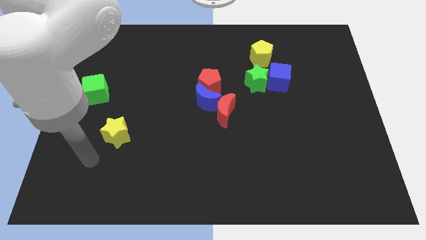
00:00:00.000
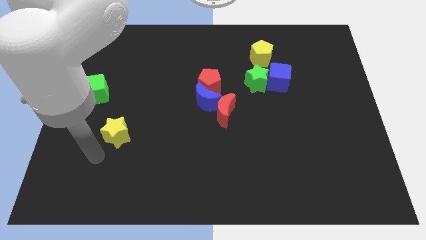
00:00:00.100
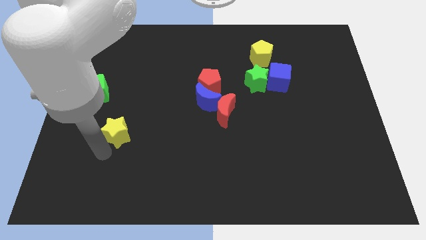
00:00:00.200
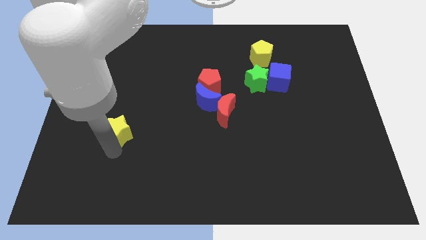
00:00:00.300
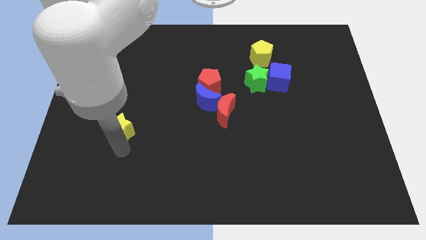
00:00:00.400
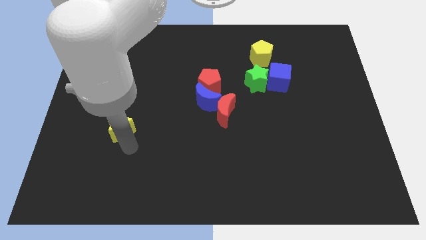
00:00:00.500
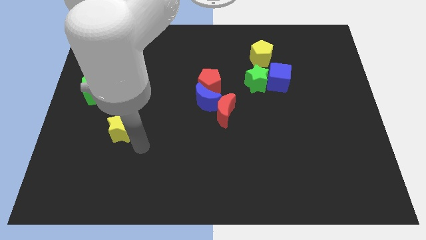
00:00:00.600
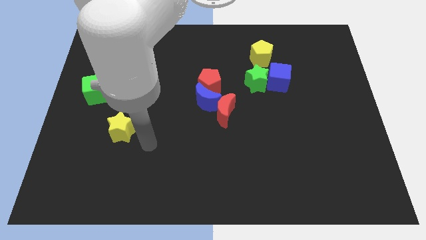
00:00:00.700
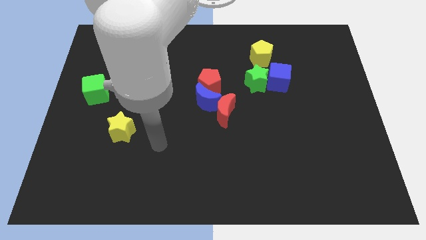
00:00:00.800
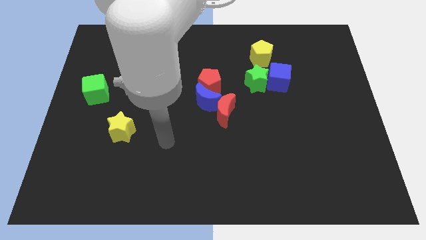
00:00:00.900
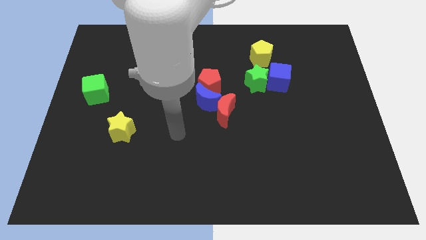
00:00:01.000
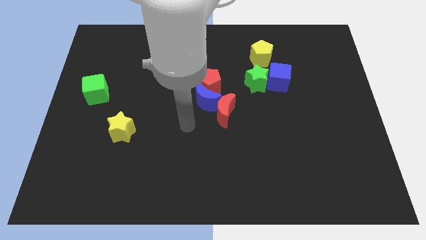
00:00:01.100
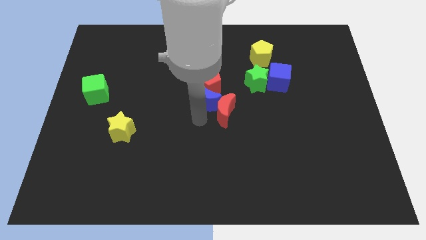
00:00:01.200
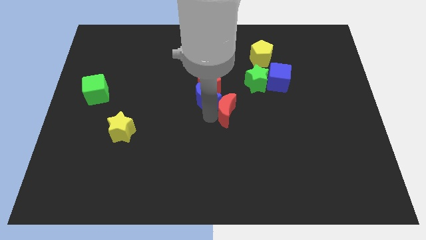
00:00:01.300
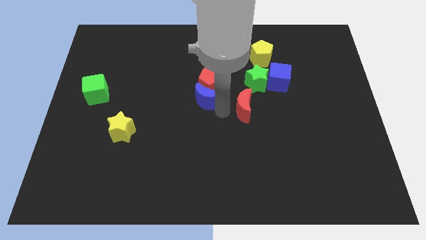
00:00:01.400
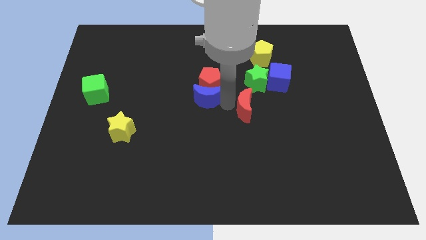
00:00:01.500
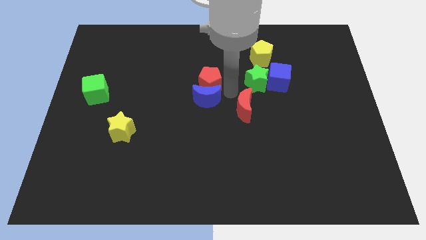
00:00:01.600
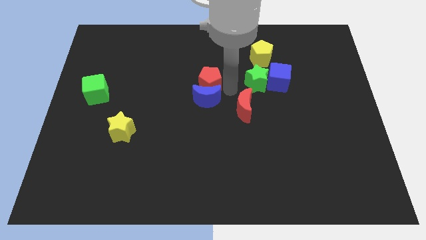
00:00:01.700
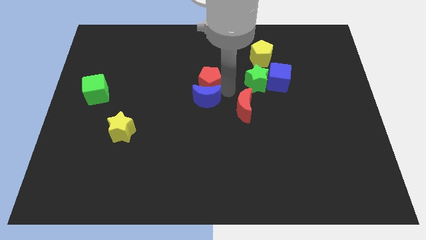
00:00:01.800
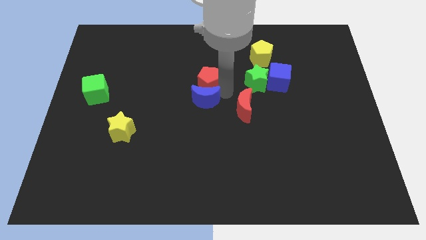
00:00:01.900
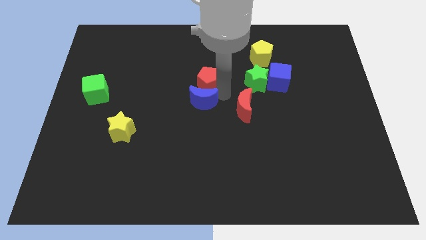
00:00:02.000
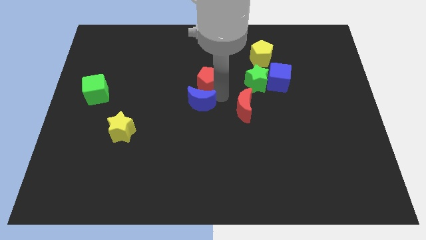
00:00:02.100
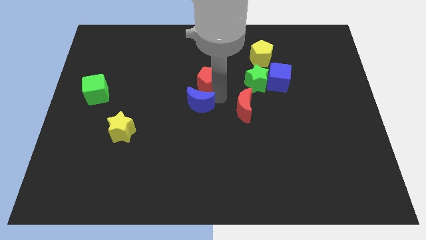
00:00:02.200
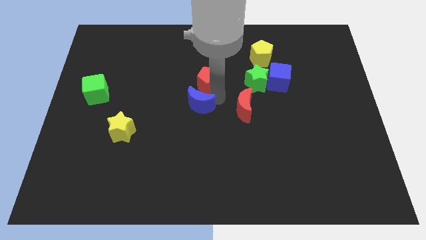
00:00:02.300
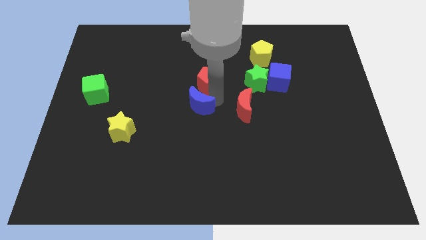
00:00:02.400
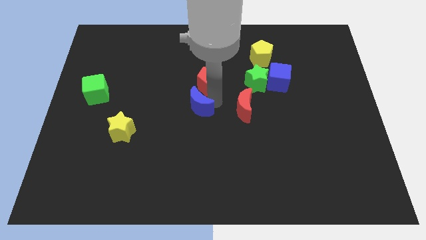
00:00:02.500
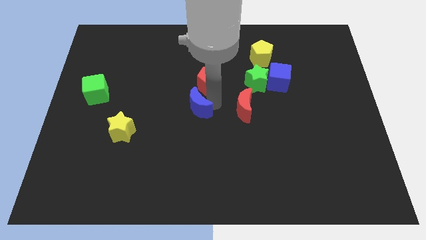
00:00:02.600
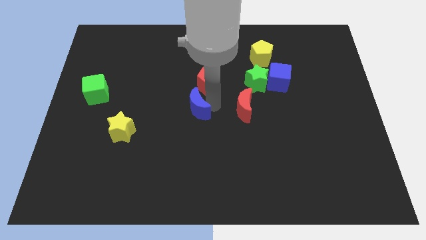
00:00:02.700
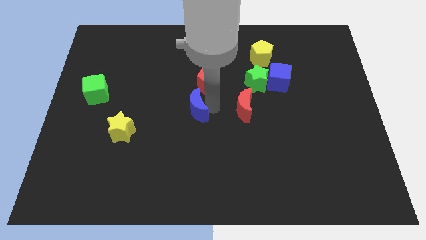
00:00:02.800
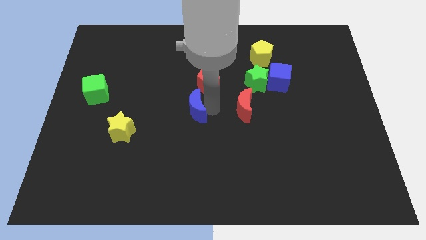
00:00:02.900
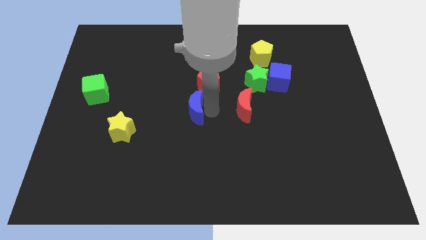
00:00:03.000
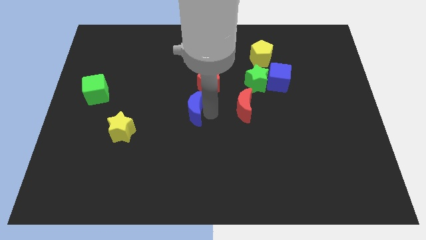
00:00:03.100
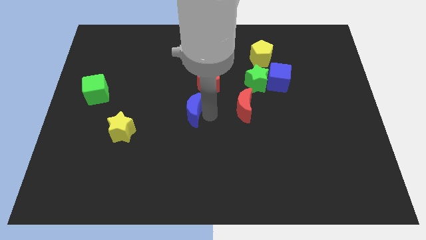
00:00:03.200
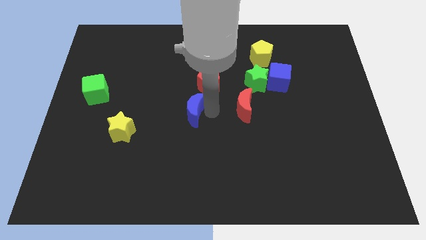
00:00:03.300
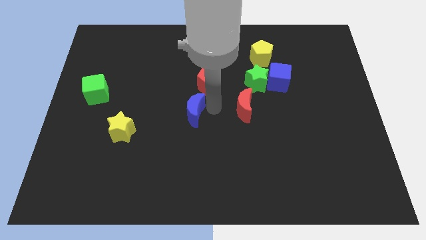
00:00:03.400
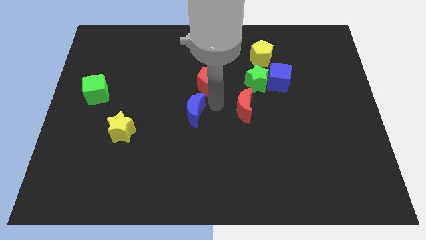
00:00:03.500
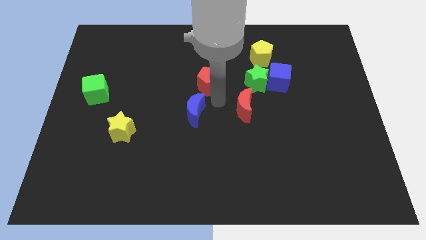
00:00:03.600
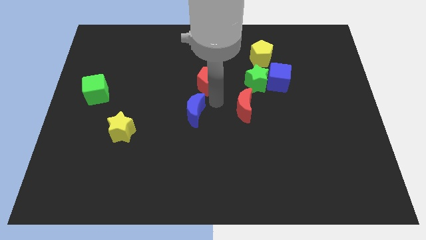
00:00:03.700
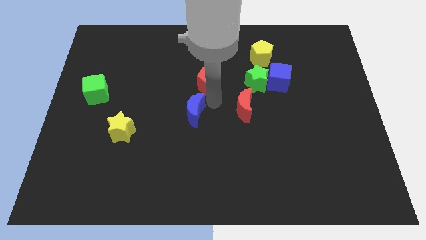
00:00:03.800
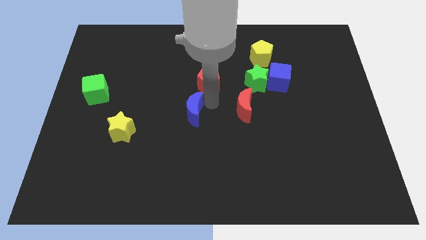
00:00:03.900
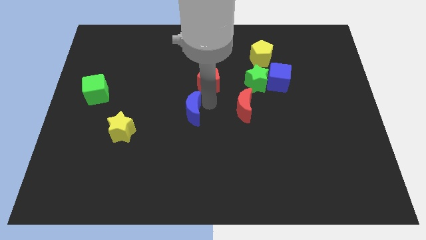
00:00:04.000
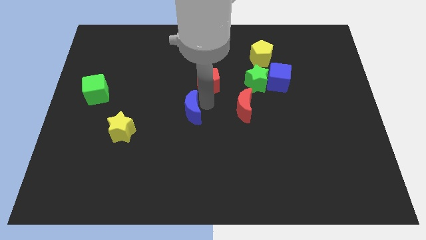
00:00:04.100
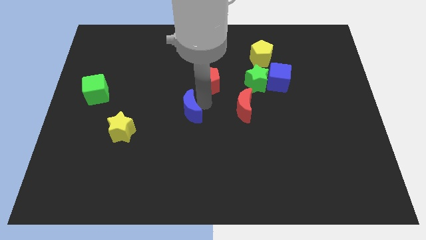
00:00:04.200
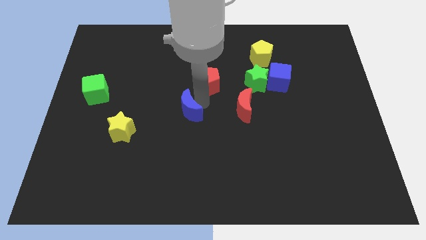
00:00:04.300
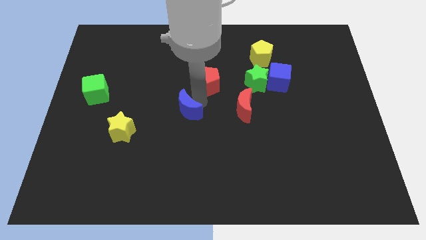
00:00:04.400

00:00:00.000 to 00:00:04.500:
separate the blue moon from the red pentagon and red moon

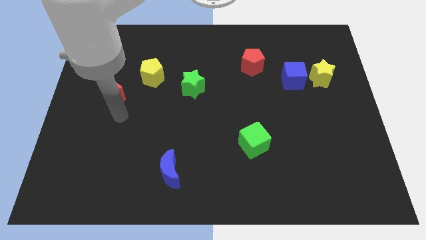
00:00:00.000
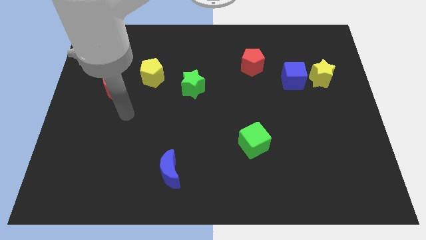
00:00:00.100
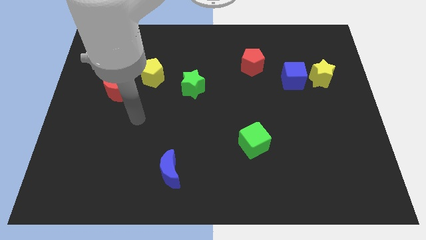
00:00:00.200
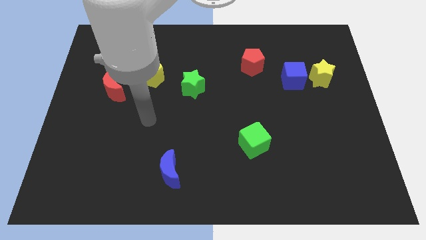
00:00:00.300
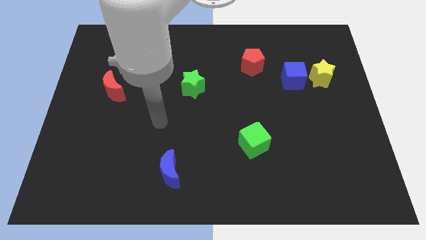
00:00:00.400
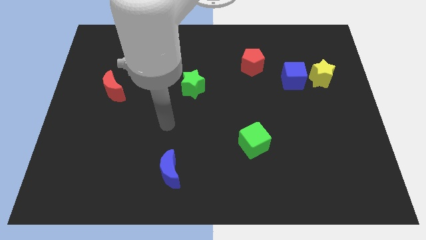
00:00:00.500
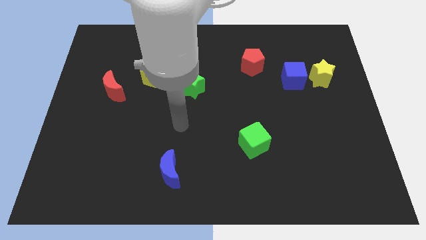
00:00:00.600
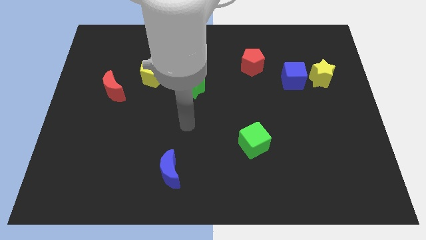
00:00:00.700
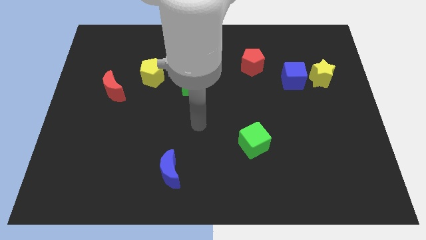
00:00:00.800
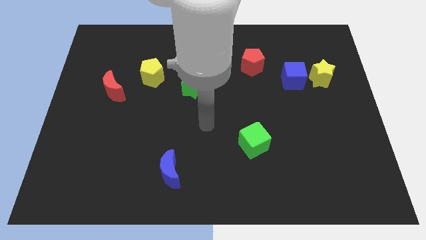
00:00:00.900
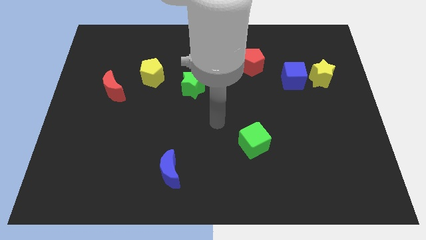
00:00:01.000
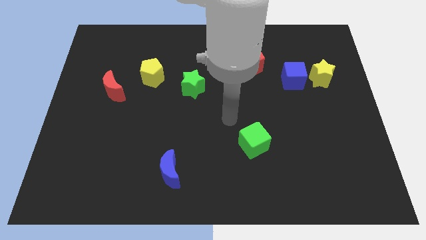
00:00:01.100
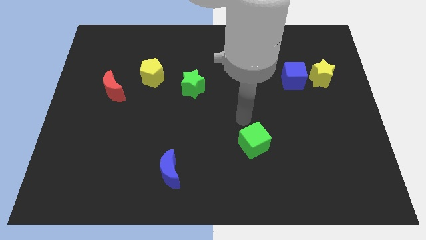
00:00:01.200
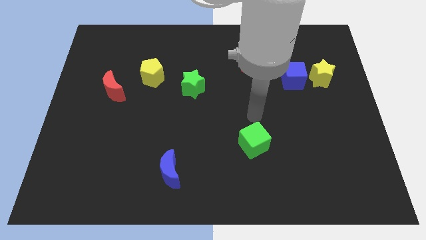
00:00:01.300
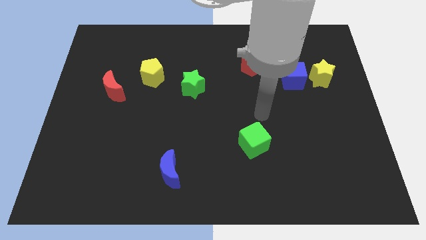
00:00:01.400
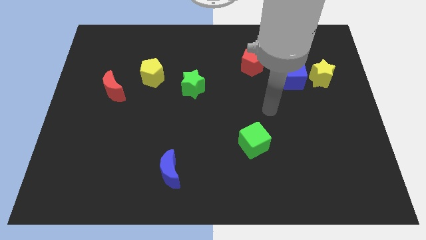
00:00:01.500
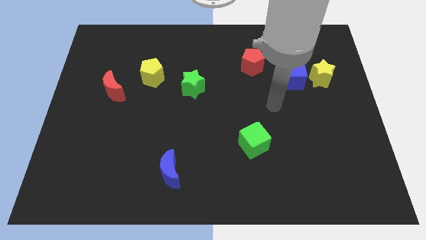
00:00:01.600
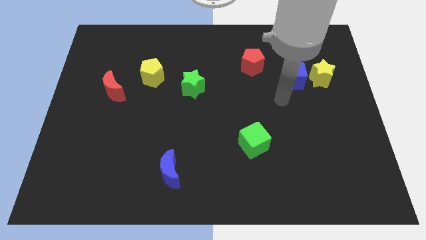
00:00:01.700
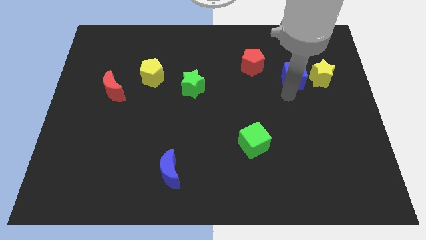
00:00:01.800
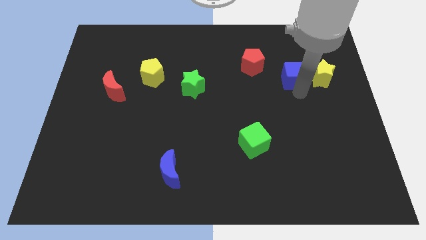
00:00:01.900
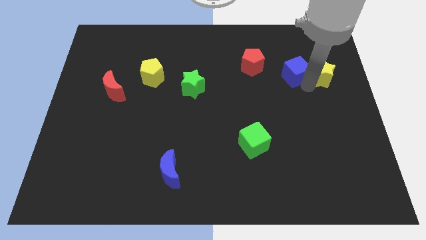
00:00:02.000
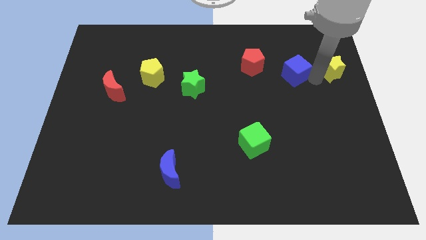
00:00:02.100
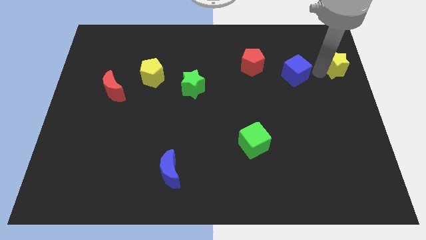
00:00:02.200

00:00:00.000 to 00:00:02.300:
pull the blue cube apart from the yellow star

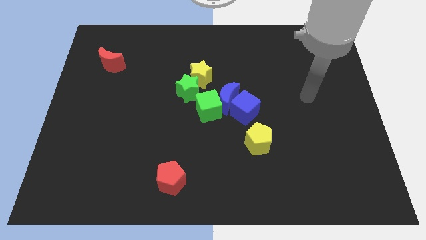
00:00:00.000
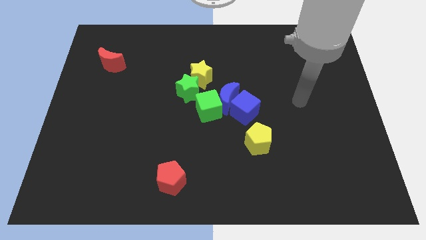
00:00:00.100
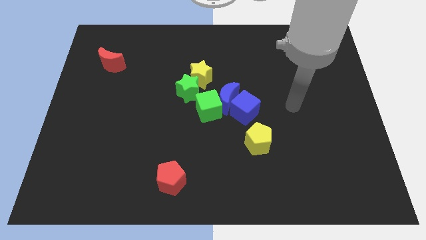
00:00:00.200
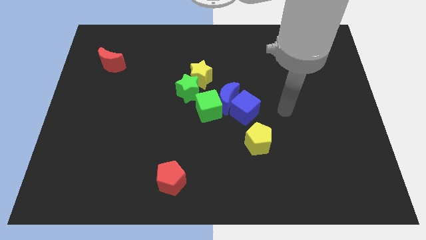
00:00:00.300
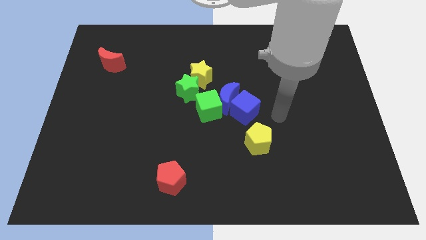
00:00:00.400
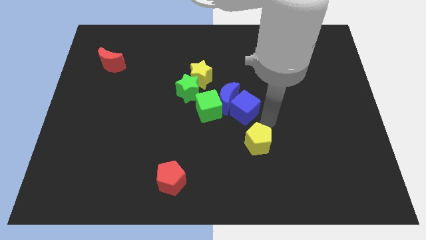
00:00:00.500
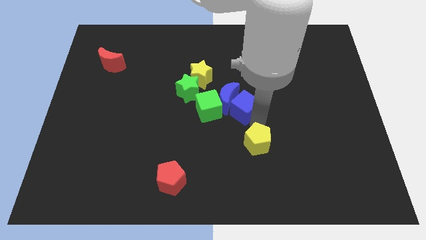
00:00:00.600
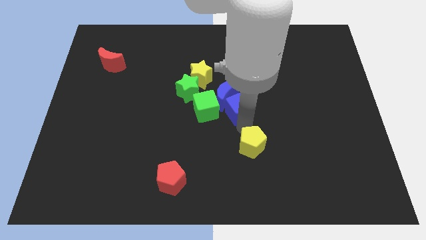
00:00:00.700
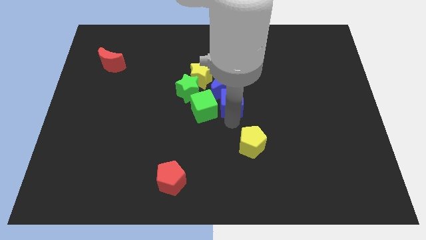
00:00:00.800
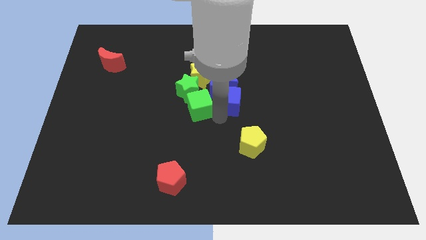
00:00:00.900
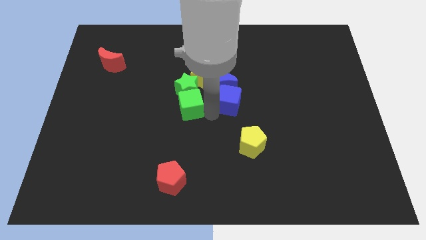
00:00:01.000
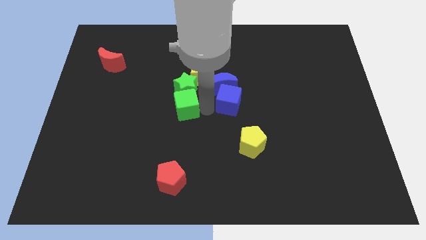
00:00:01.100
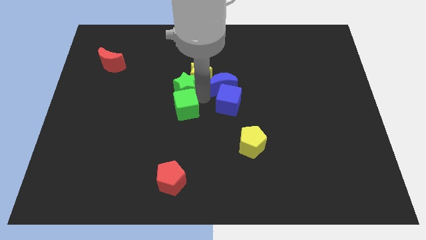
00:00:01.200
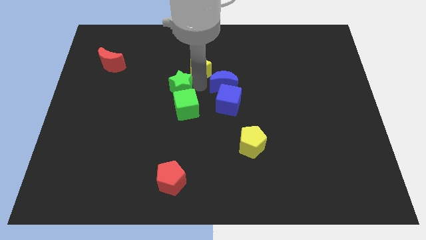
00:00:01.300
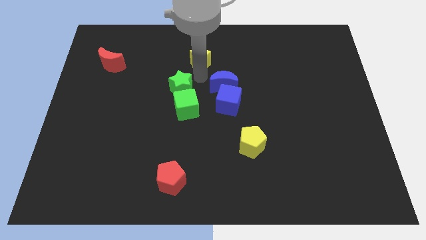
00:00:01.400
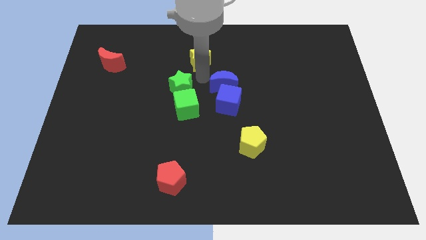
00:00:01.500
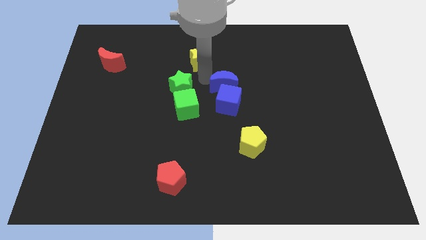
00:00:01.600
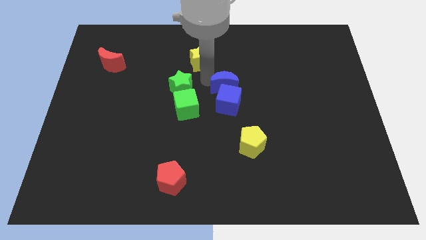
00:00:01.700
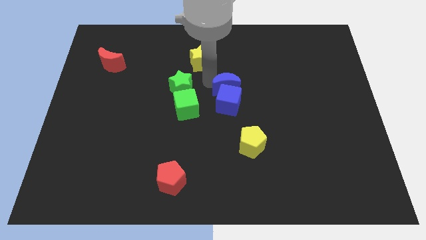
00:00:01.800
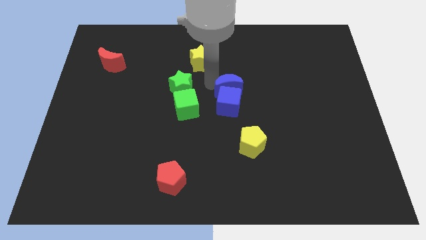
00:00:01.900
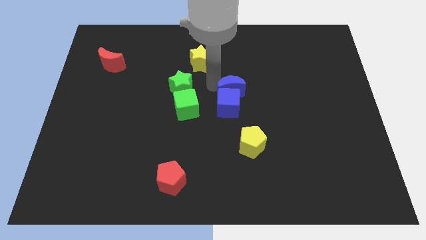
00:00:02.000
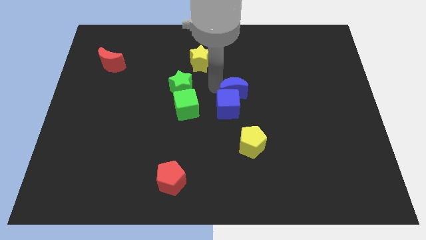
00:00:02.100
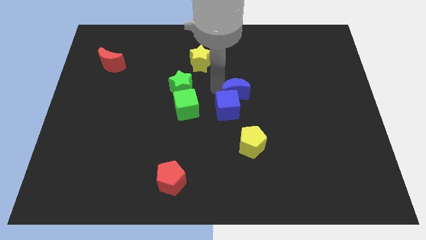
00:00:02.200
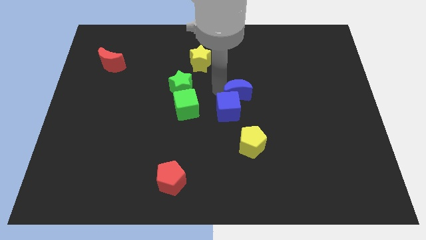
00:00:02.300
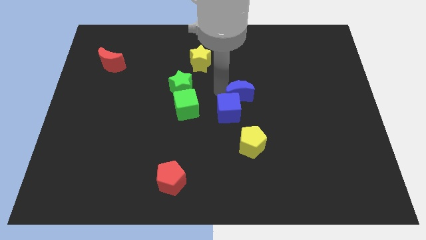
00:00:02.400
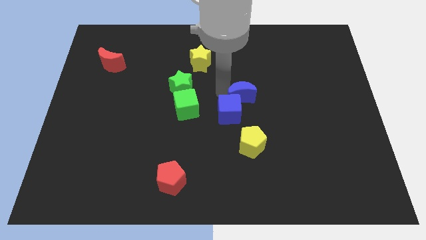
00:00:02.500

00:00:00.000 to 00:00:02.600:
move the blue moon away from the group of blocks
